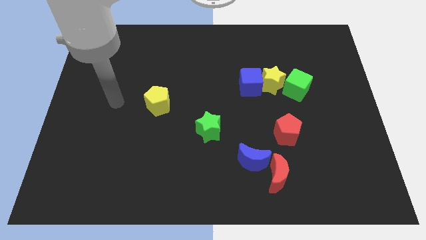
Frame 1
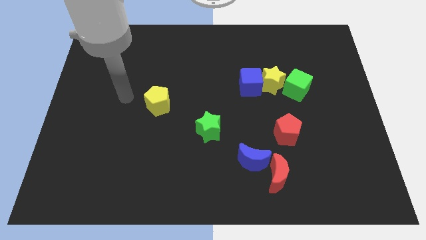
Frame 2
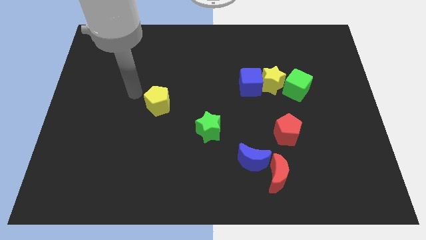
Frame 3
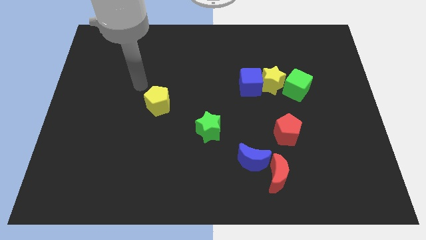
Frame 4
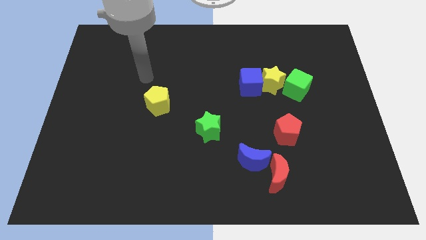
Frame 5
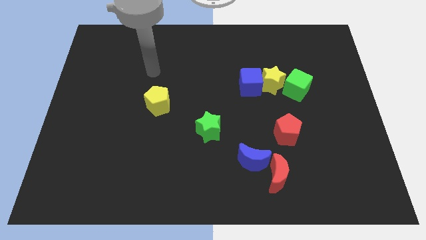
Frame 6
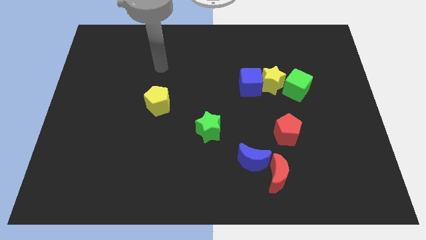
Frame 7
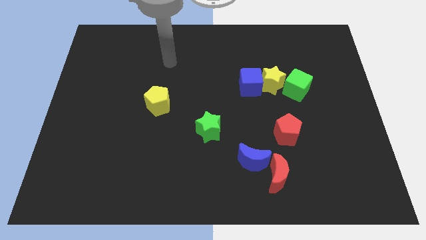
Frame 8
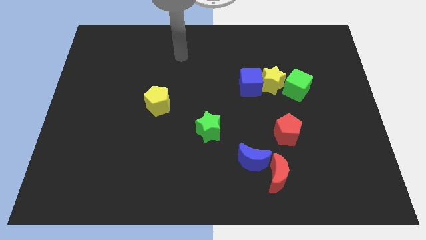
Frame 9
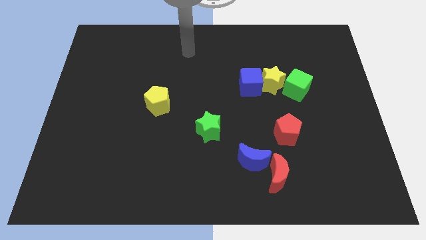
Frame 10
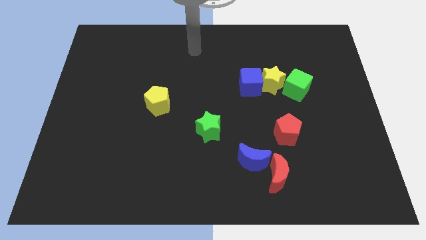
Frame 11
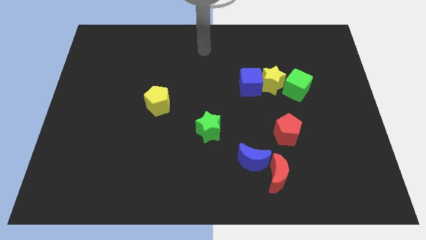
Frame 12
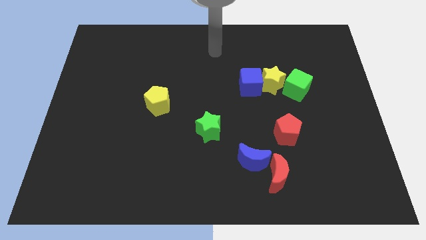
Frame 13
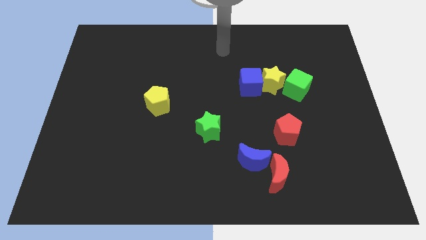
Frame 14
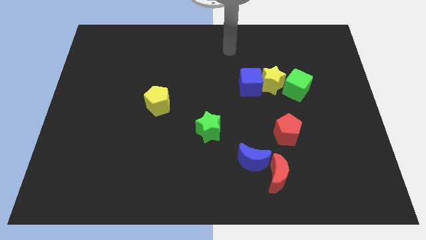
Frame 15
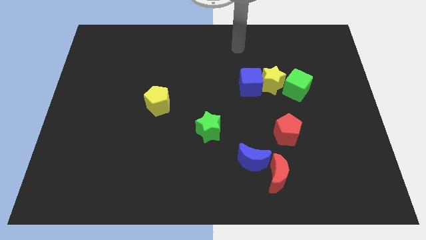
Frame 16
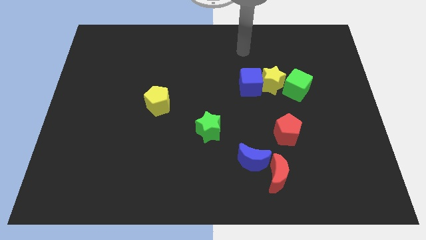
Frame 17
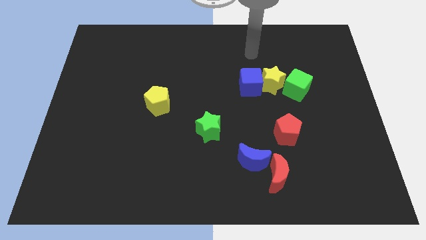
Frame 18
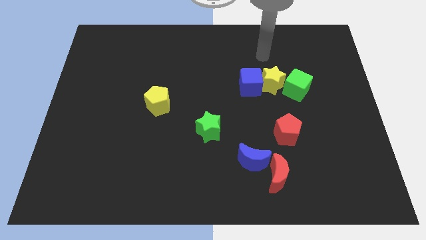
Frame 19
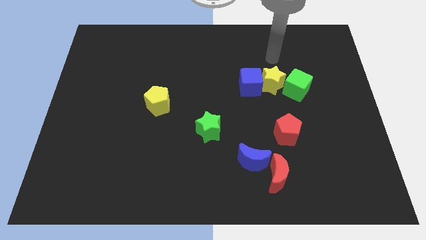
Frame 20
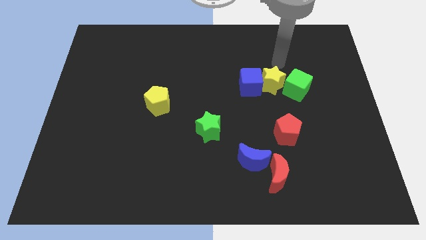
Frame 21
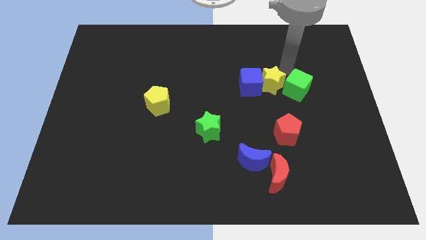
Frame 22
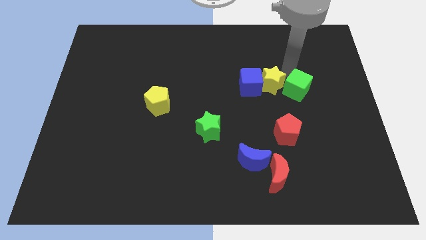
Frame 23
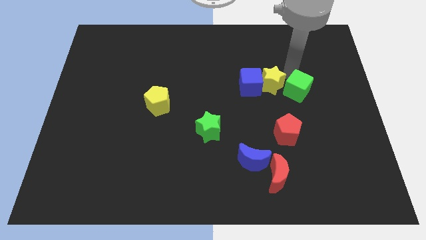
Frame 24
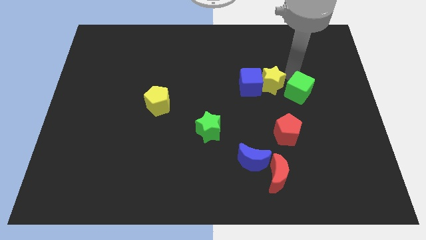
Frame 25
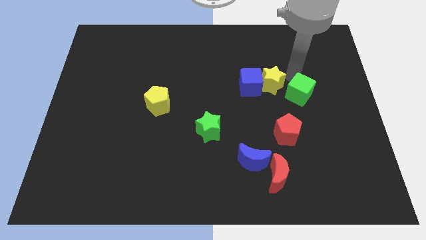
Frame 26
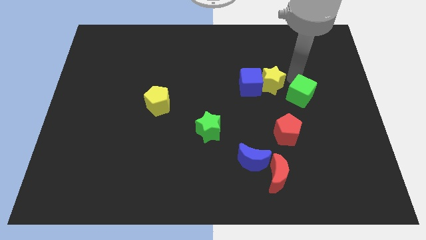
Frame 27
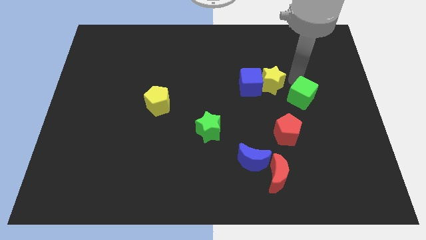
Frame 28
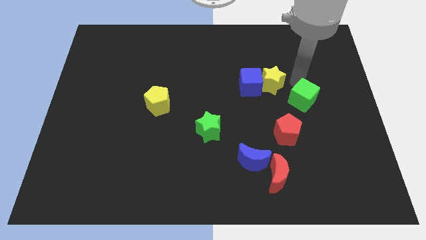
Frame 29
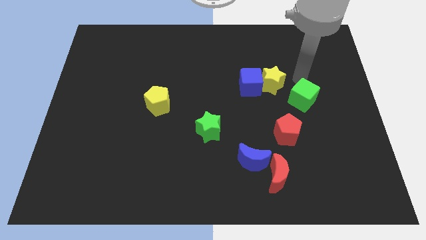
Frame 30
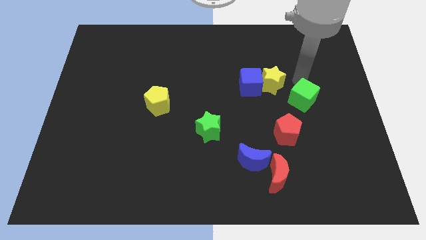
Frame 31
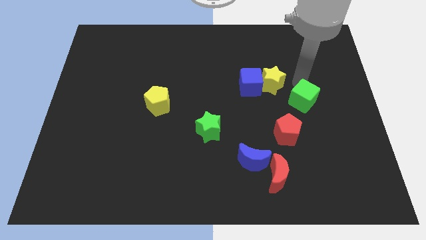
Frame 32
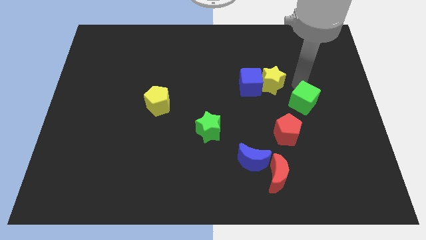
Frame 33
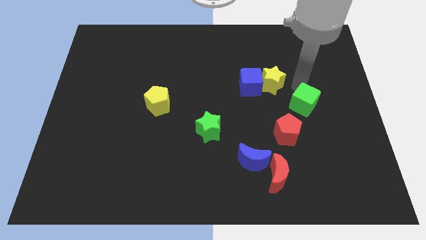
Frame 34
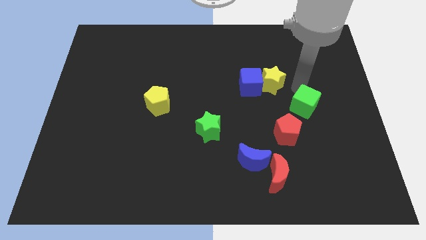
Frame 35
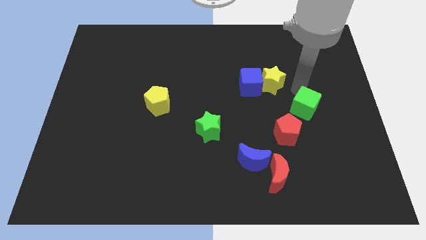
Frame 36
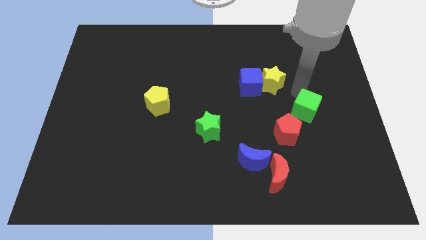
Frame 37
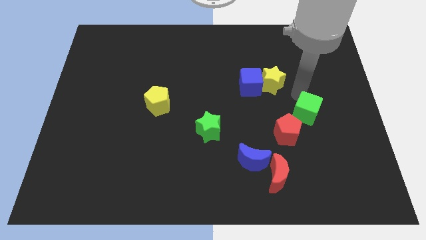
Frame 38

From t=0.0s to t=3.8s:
move the green cube slightly down

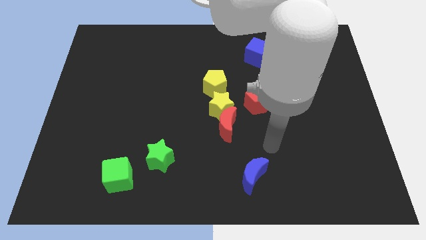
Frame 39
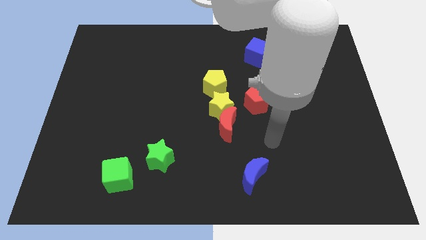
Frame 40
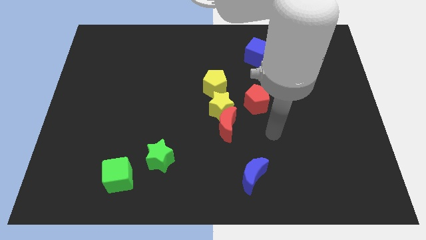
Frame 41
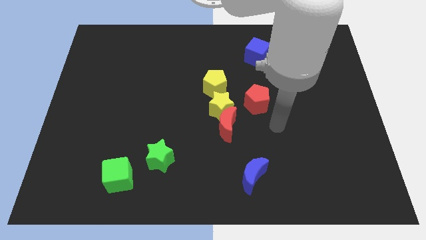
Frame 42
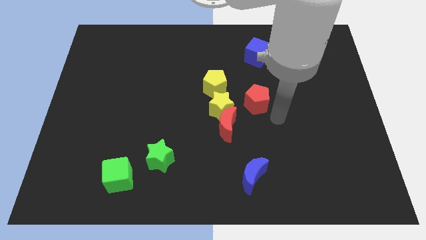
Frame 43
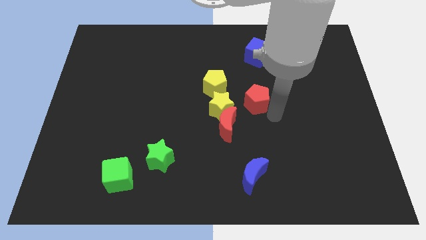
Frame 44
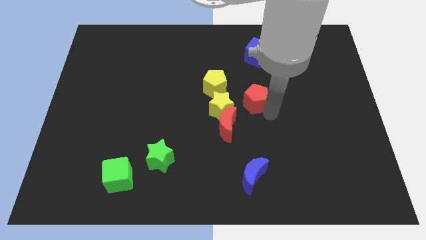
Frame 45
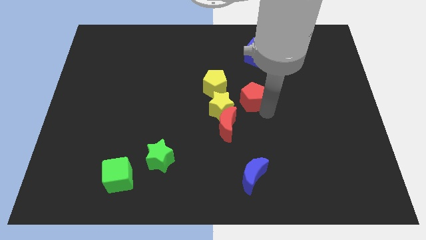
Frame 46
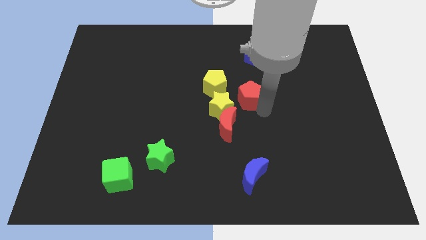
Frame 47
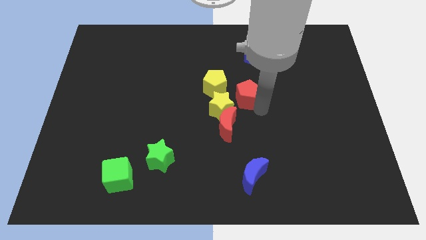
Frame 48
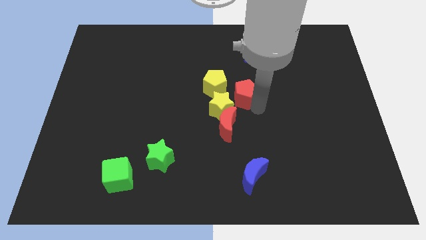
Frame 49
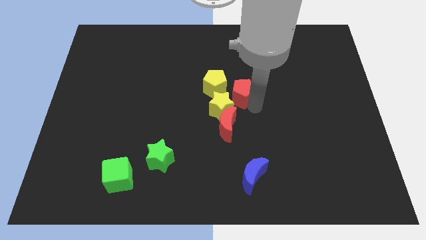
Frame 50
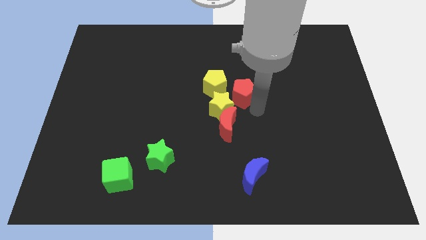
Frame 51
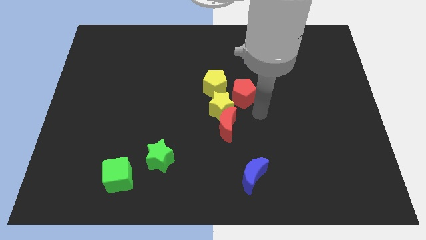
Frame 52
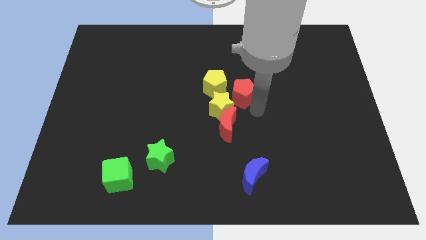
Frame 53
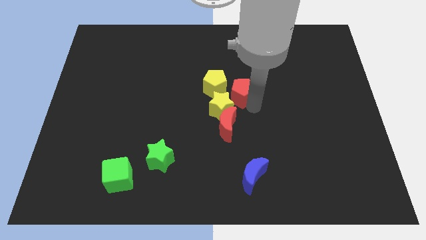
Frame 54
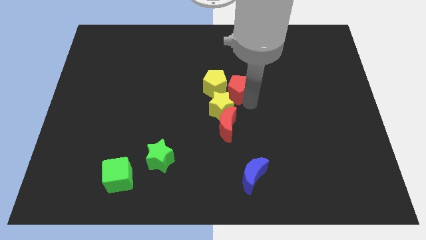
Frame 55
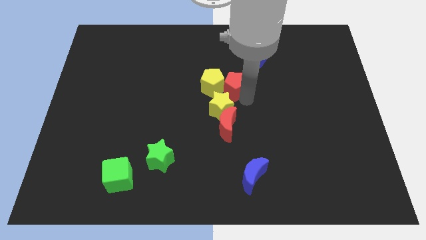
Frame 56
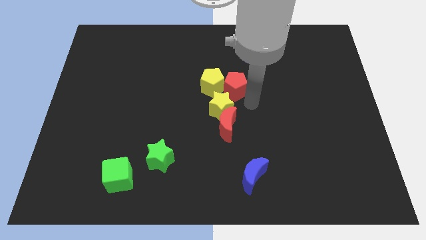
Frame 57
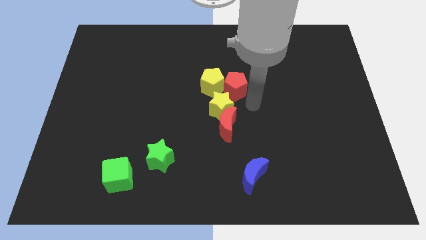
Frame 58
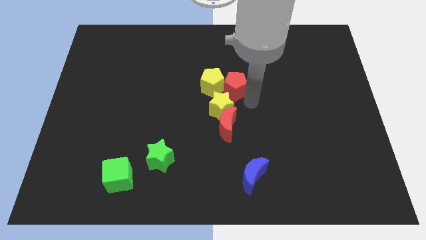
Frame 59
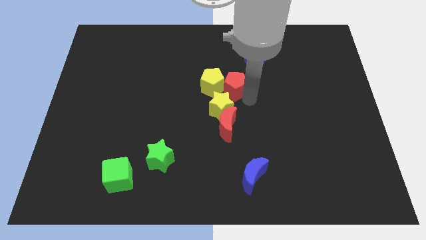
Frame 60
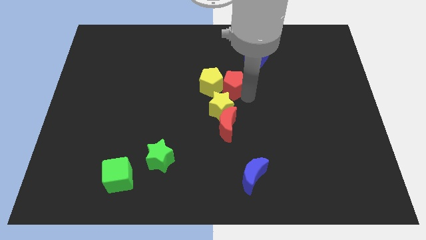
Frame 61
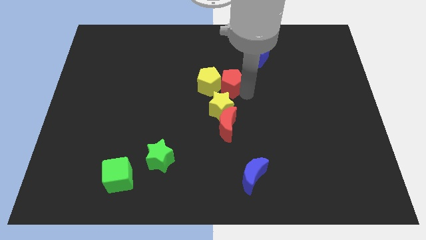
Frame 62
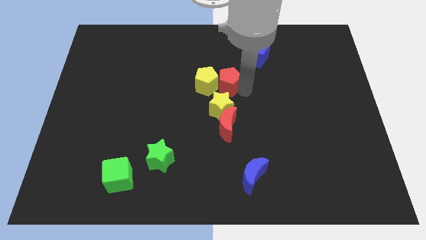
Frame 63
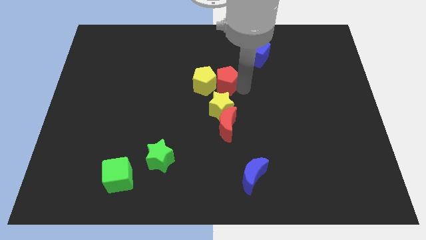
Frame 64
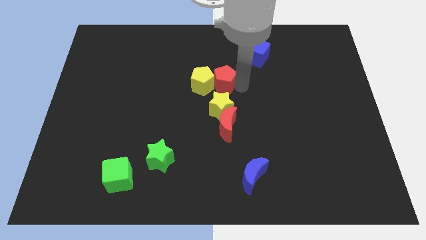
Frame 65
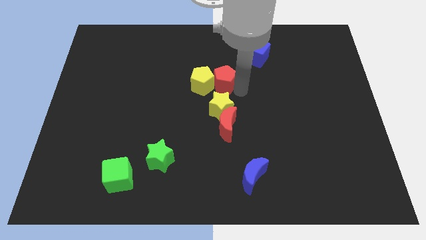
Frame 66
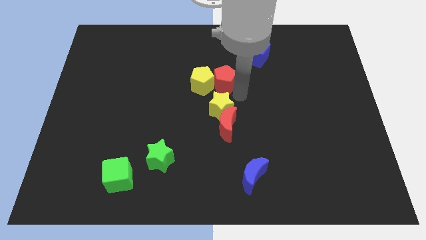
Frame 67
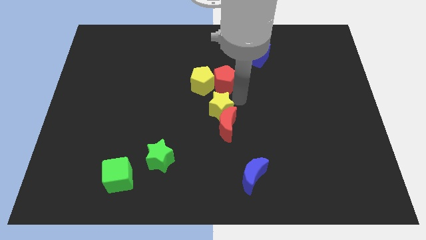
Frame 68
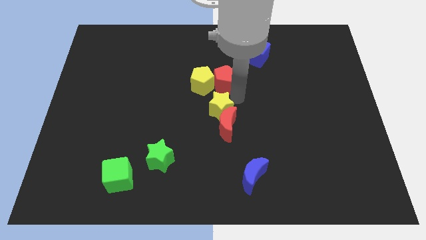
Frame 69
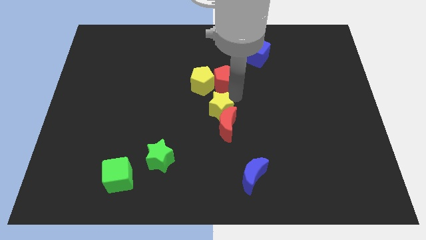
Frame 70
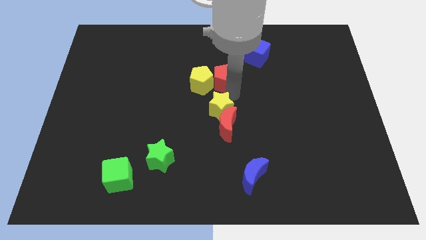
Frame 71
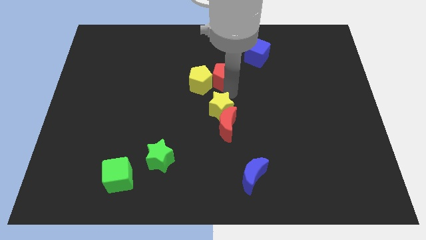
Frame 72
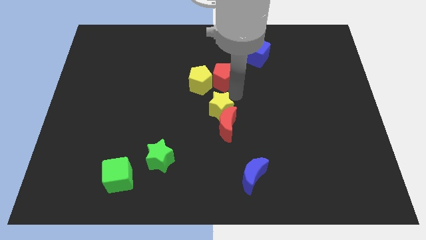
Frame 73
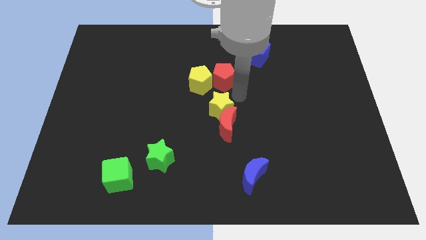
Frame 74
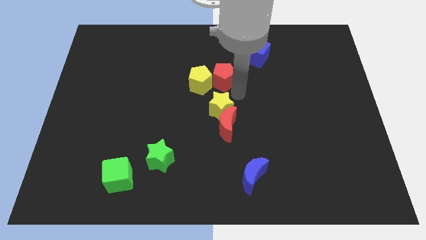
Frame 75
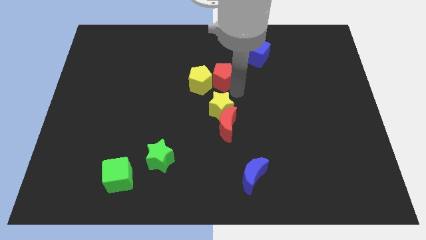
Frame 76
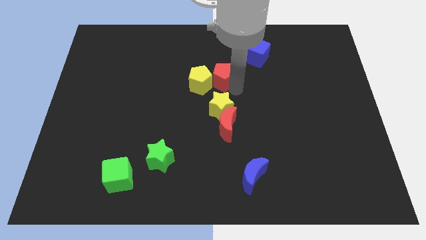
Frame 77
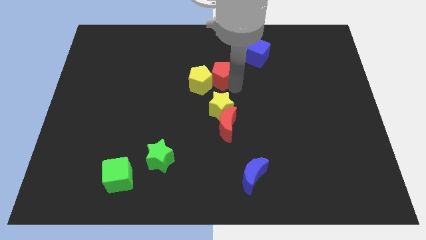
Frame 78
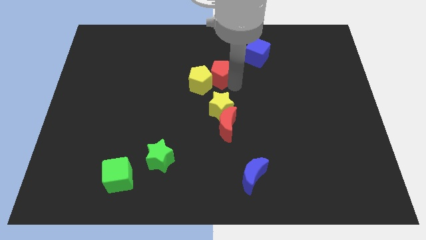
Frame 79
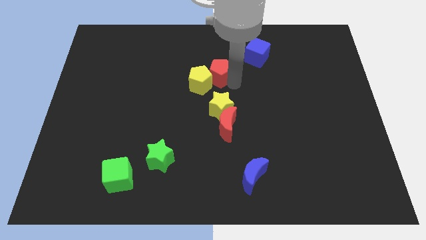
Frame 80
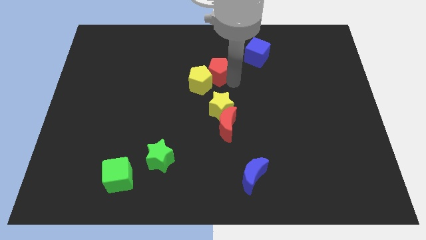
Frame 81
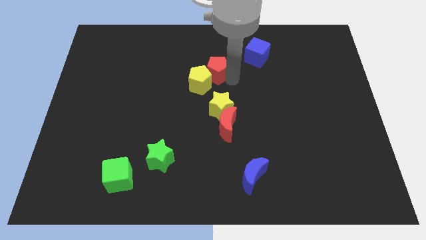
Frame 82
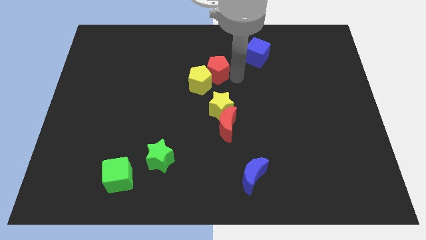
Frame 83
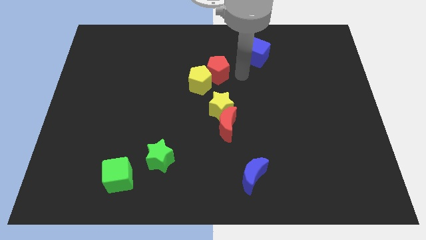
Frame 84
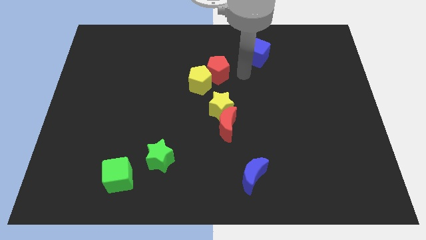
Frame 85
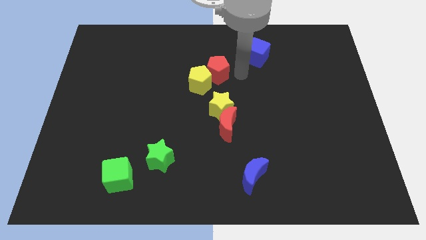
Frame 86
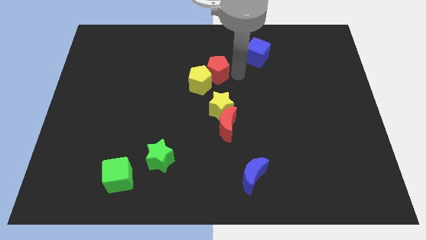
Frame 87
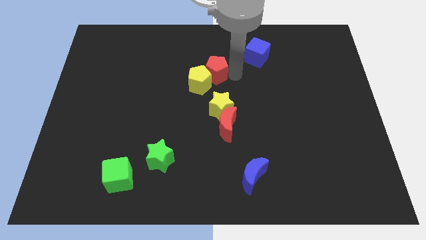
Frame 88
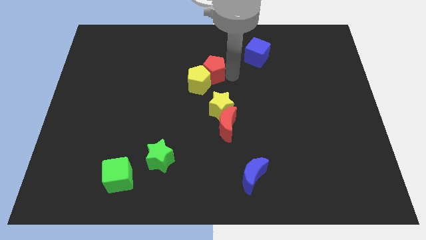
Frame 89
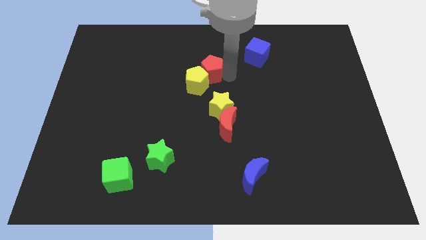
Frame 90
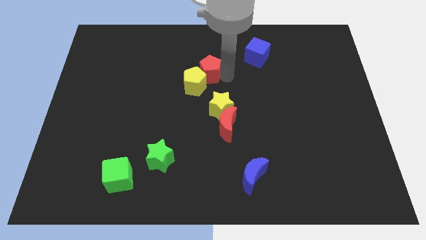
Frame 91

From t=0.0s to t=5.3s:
move the red pentagon left a bit
